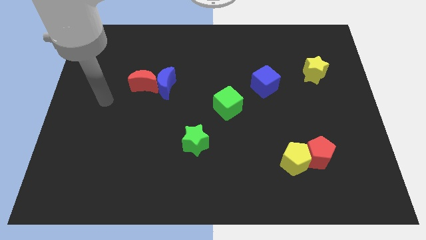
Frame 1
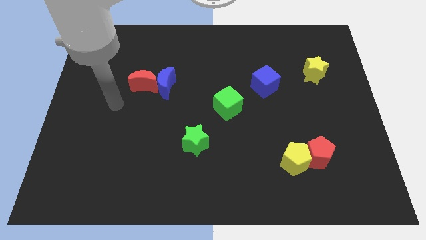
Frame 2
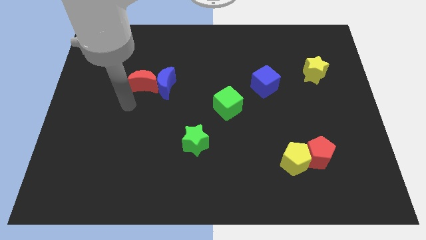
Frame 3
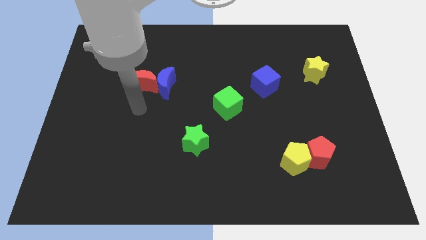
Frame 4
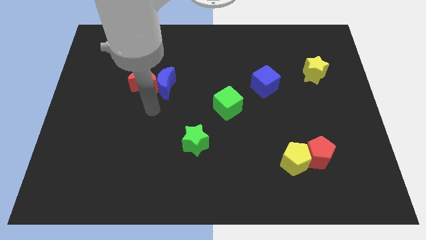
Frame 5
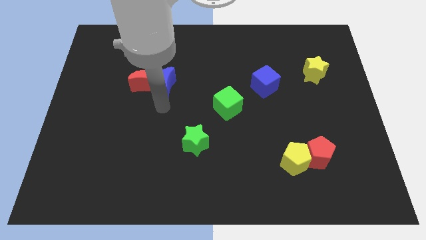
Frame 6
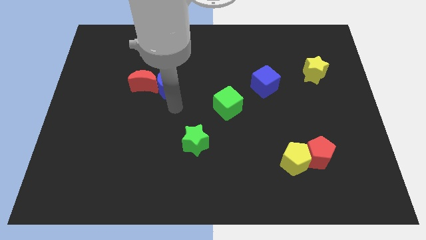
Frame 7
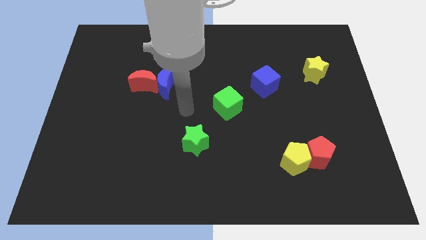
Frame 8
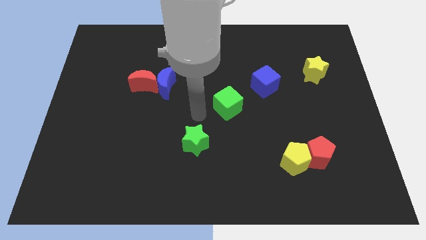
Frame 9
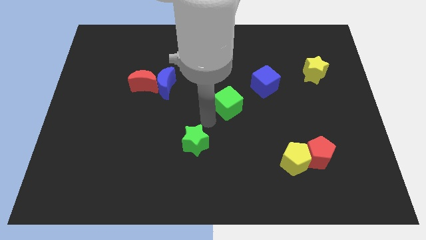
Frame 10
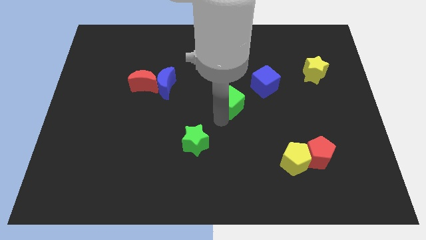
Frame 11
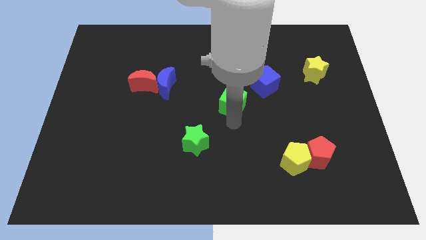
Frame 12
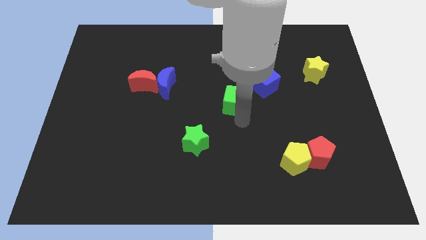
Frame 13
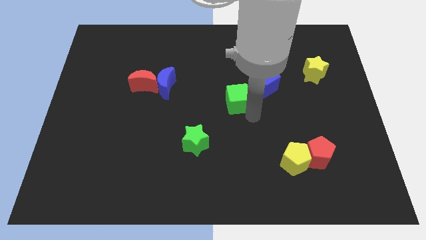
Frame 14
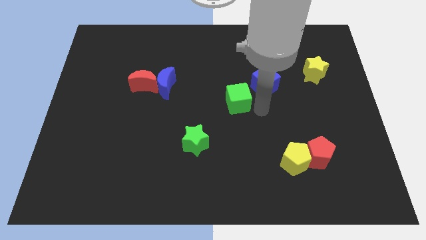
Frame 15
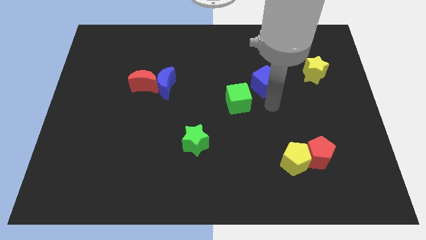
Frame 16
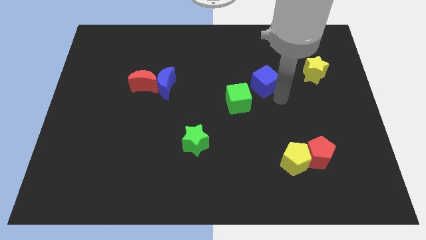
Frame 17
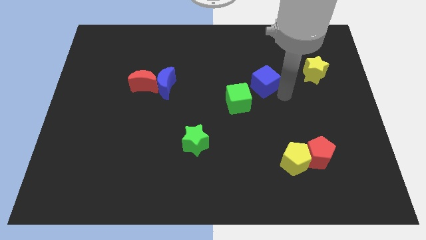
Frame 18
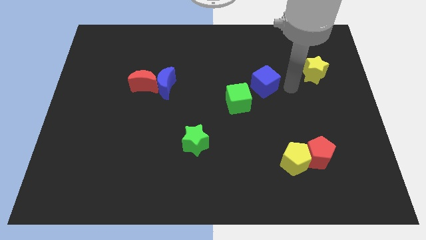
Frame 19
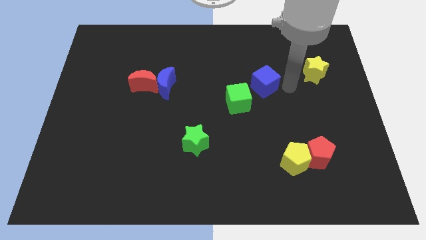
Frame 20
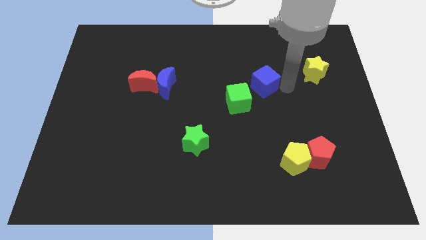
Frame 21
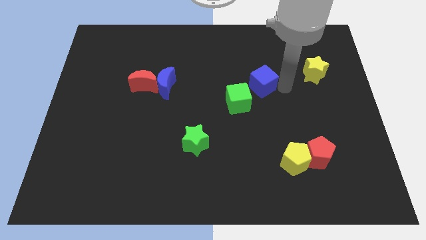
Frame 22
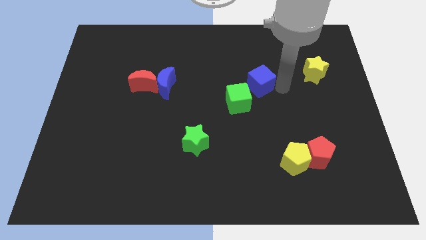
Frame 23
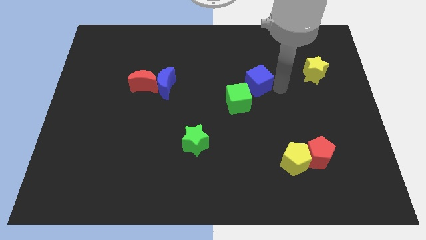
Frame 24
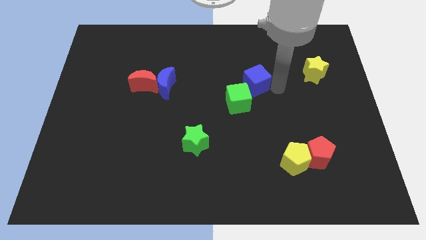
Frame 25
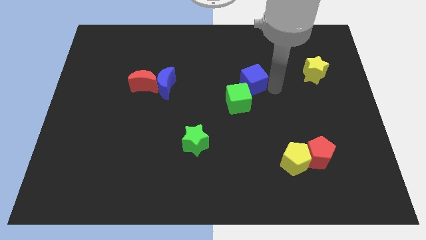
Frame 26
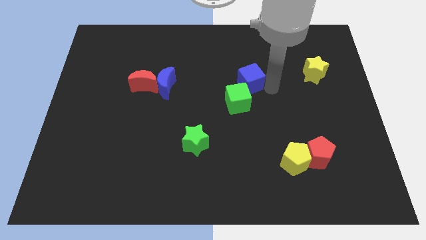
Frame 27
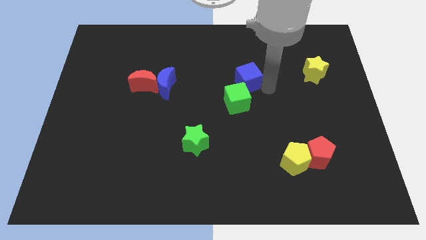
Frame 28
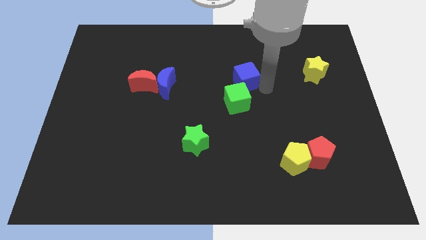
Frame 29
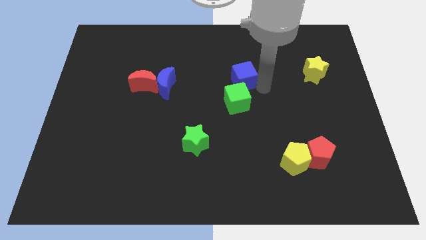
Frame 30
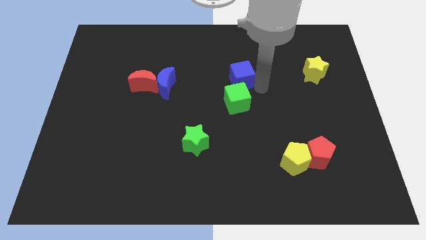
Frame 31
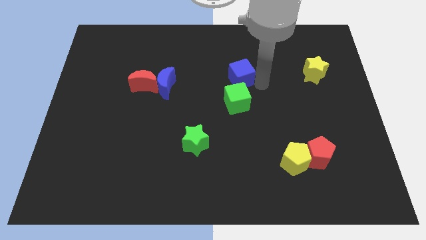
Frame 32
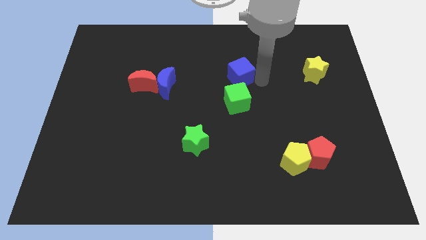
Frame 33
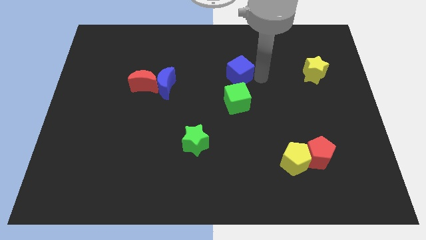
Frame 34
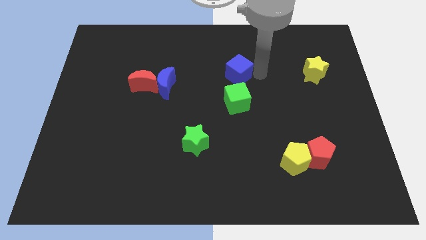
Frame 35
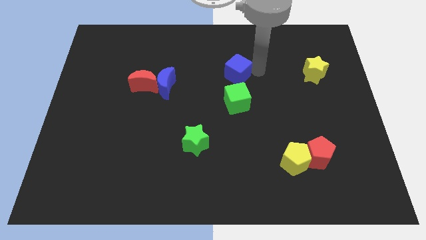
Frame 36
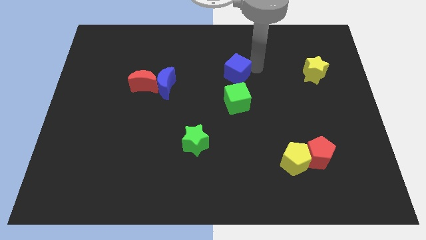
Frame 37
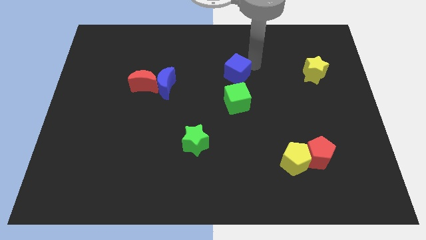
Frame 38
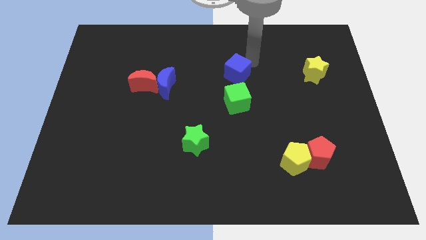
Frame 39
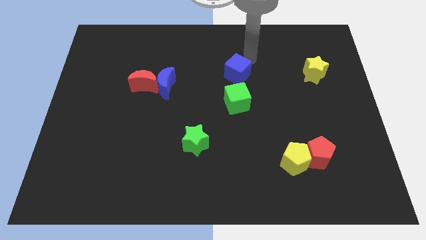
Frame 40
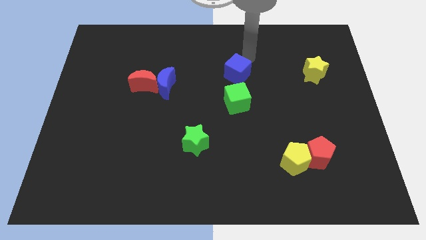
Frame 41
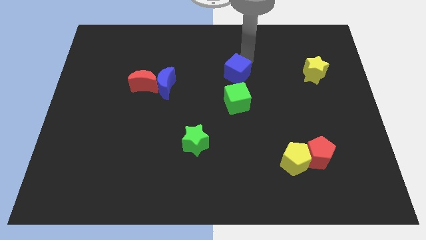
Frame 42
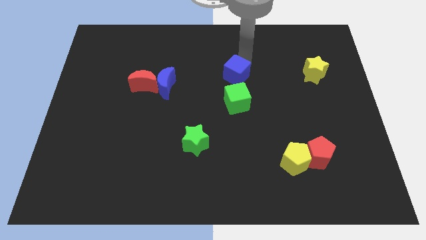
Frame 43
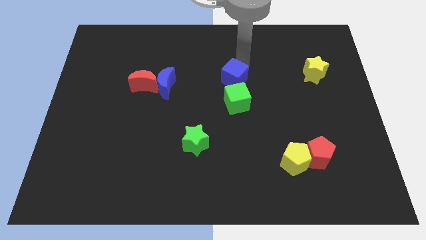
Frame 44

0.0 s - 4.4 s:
move the blue cube somewhat to the left

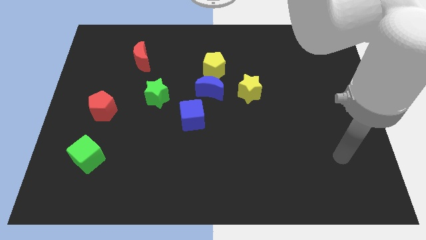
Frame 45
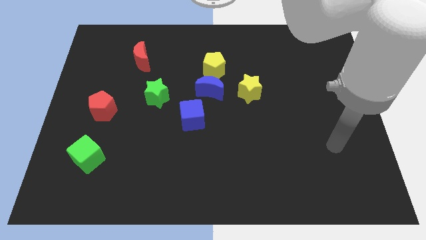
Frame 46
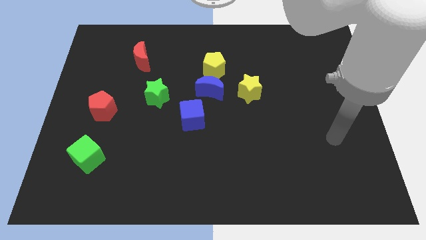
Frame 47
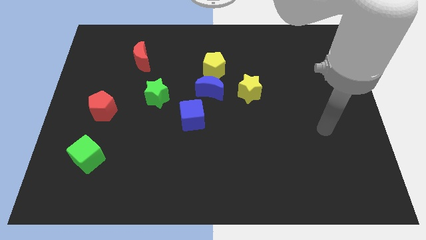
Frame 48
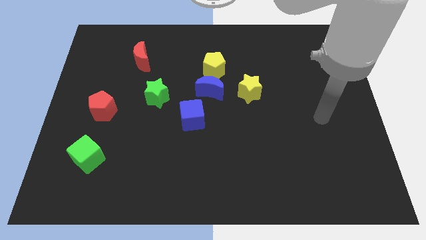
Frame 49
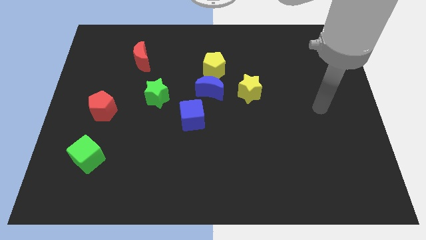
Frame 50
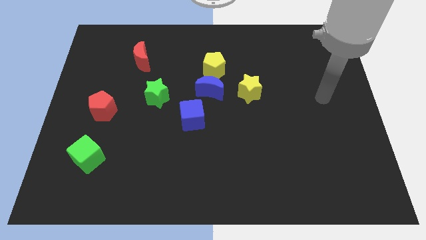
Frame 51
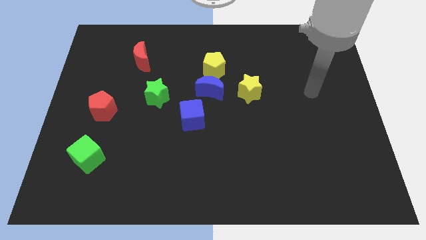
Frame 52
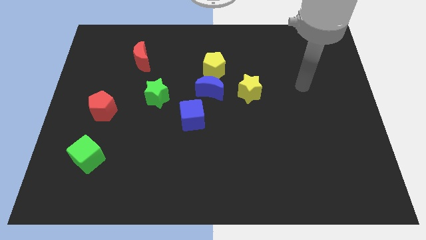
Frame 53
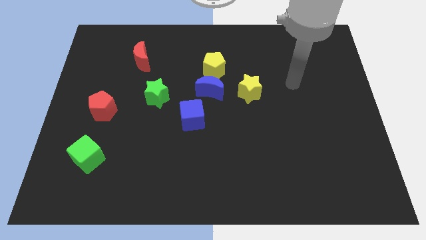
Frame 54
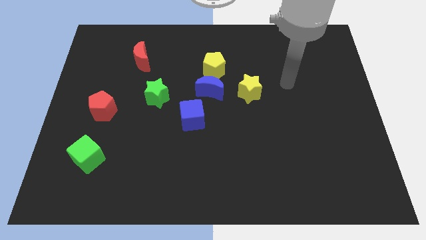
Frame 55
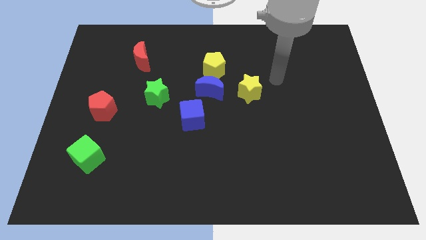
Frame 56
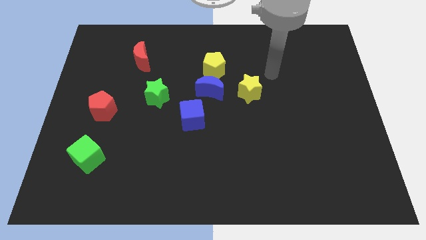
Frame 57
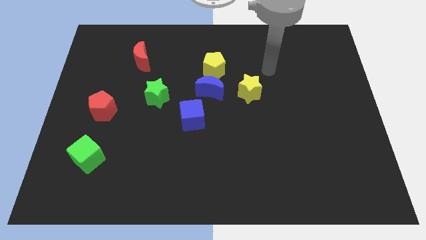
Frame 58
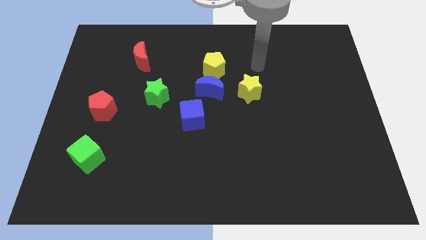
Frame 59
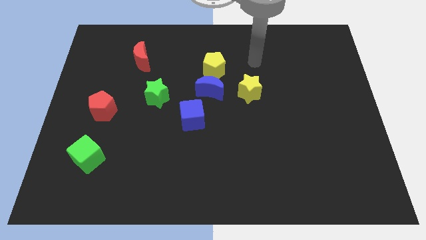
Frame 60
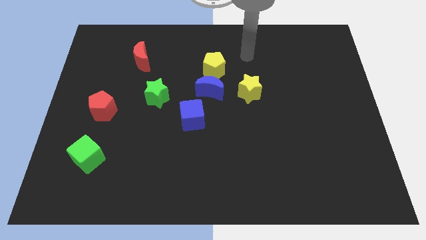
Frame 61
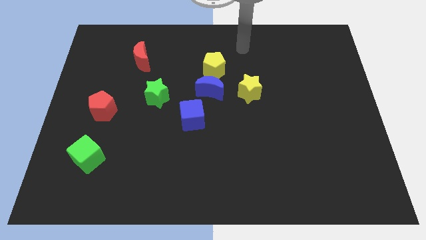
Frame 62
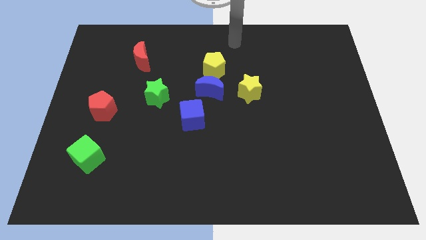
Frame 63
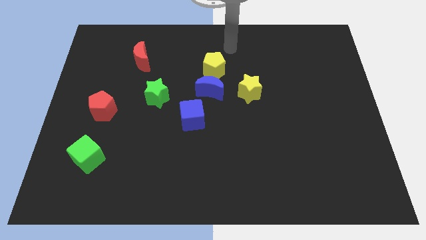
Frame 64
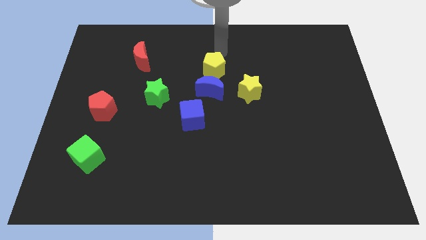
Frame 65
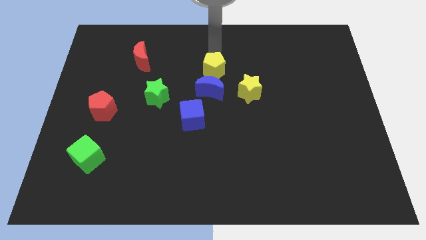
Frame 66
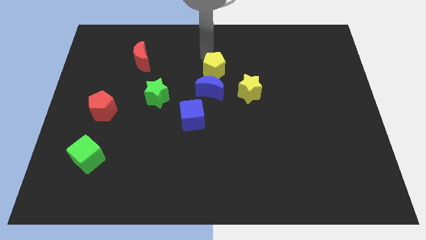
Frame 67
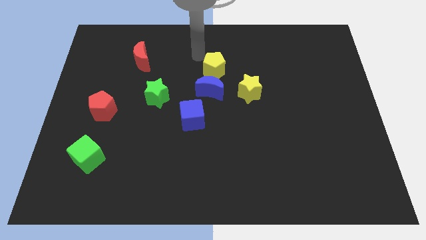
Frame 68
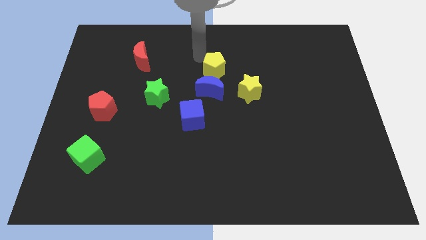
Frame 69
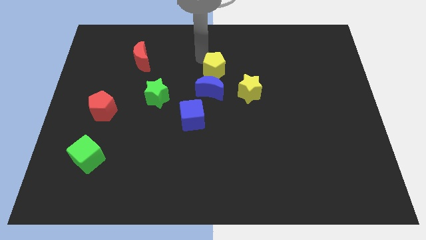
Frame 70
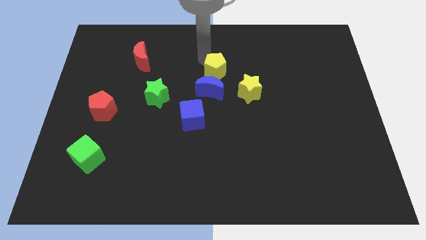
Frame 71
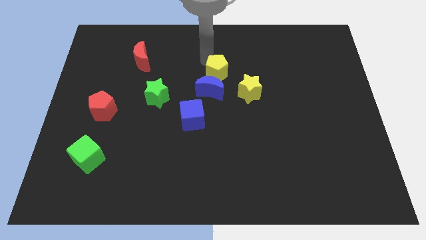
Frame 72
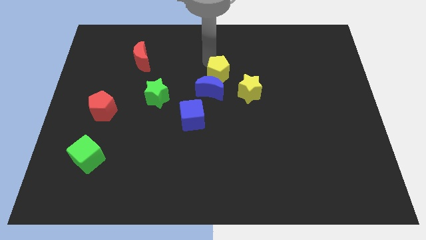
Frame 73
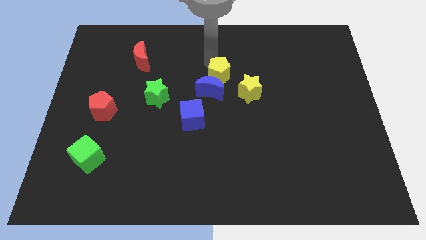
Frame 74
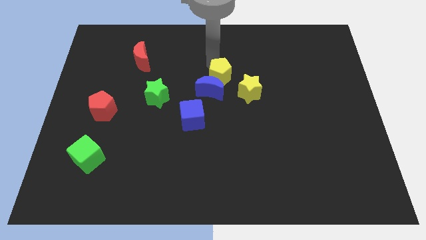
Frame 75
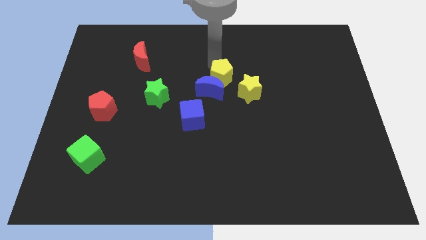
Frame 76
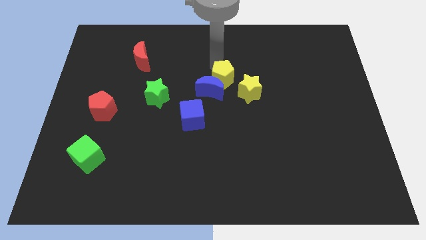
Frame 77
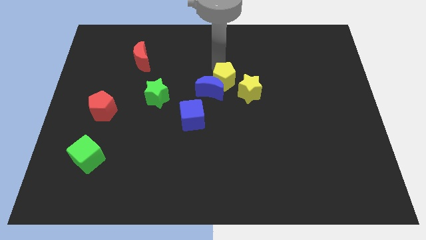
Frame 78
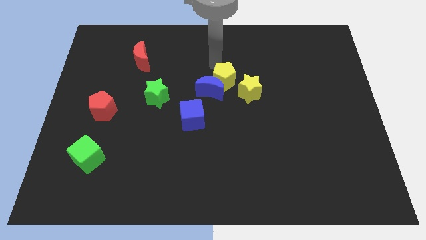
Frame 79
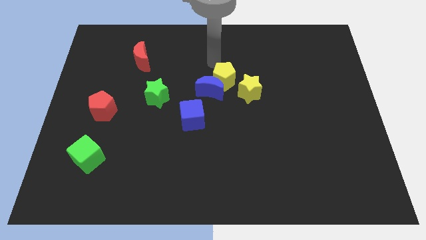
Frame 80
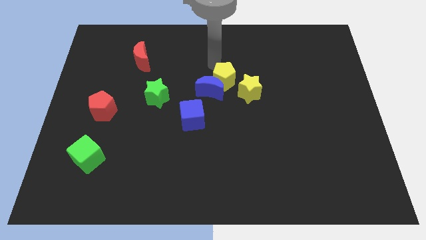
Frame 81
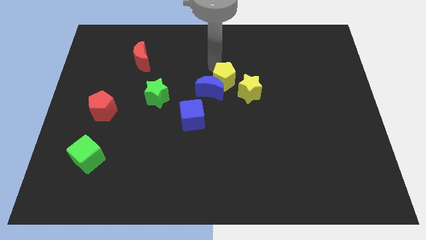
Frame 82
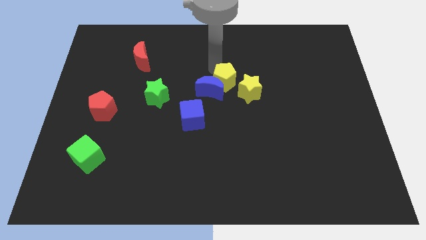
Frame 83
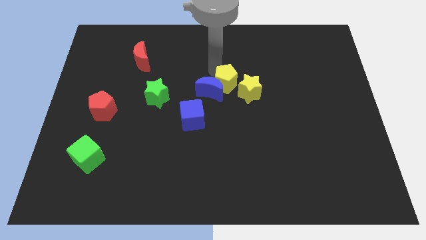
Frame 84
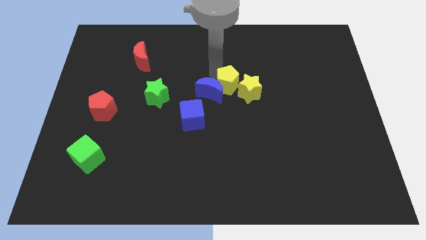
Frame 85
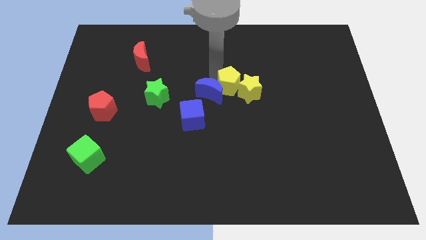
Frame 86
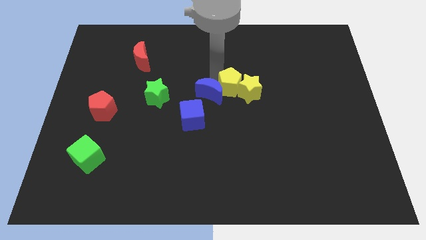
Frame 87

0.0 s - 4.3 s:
move the yellow pentagon diagonally downwards and to the right somewhat
